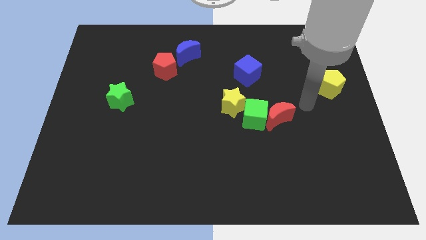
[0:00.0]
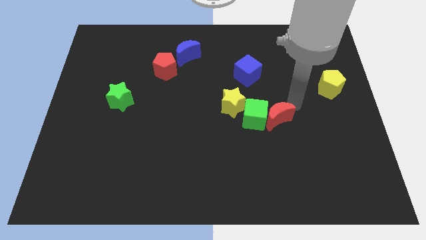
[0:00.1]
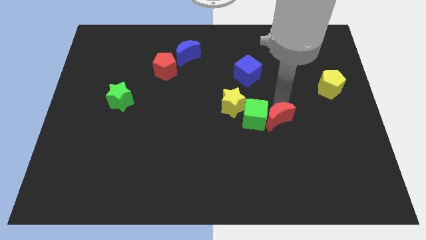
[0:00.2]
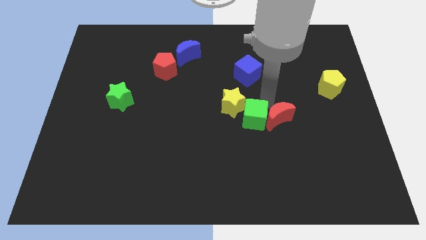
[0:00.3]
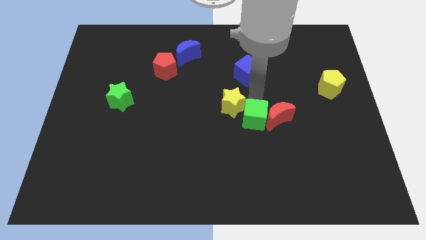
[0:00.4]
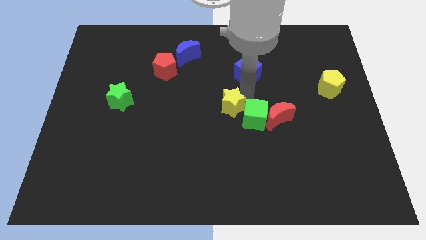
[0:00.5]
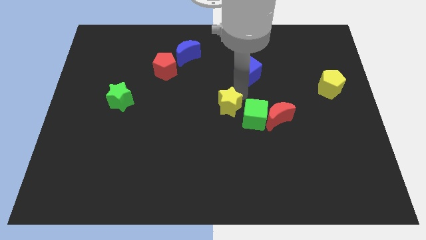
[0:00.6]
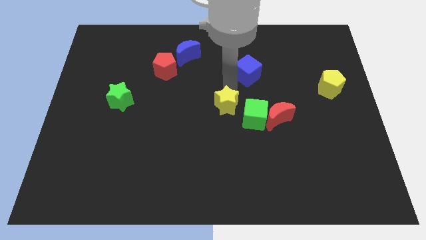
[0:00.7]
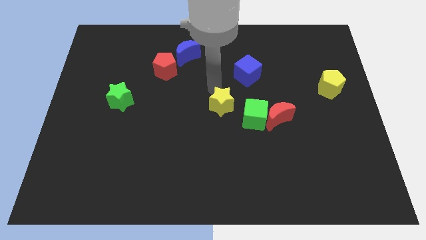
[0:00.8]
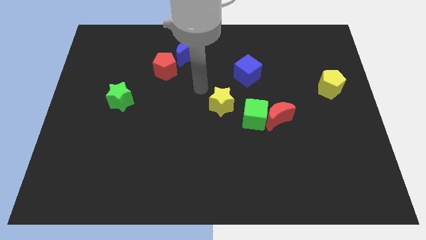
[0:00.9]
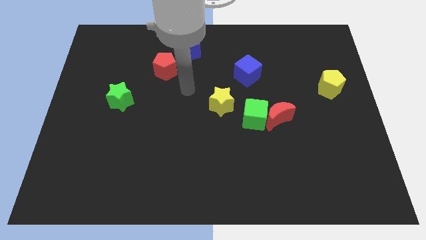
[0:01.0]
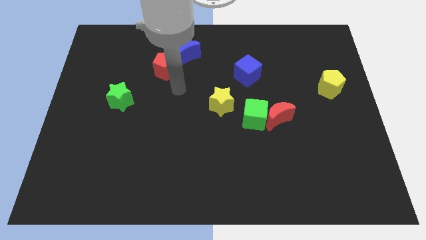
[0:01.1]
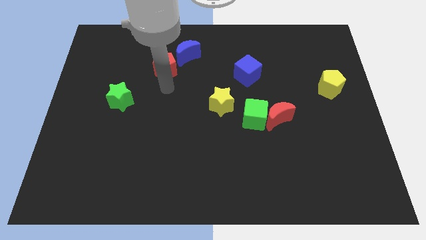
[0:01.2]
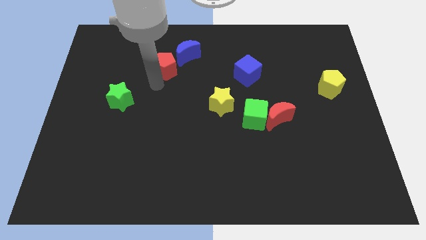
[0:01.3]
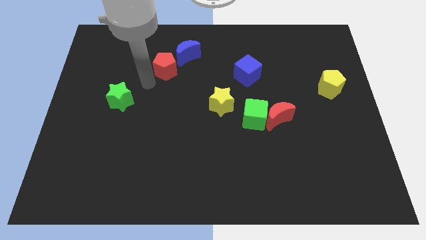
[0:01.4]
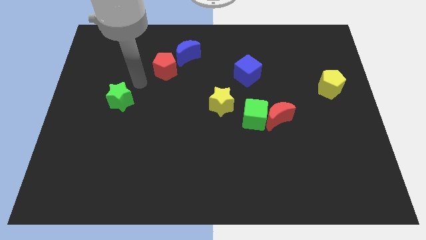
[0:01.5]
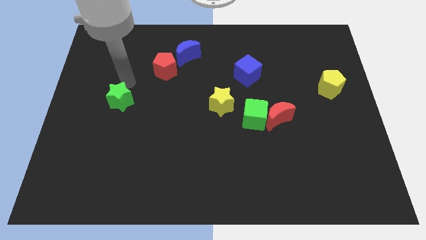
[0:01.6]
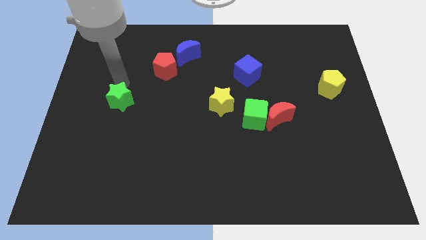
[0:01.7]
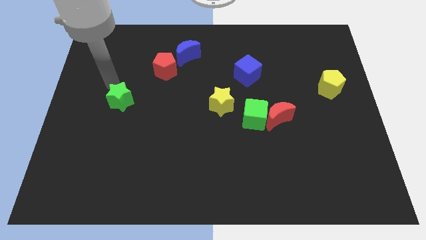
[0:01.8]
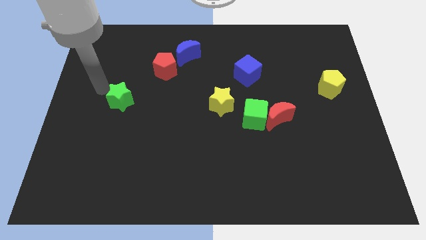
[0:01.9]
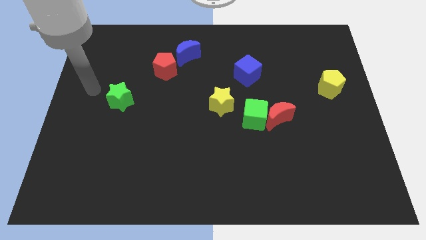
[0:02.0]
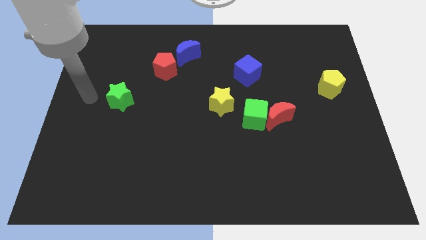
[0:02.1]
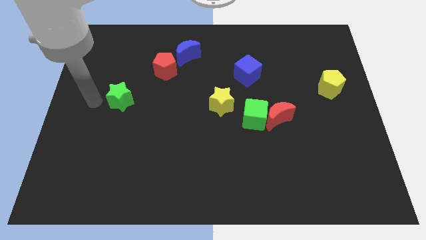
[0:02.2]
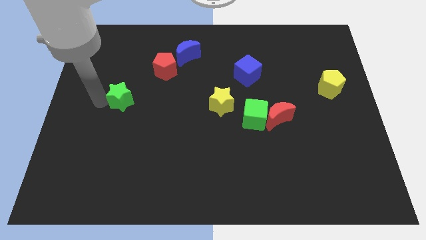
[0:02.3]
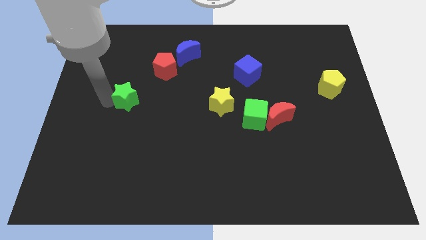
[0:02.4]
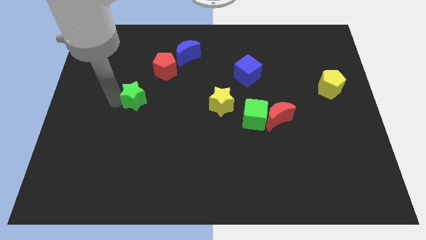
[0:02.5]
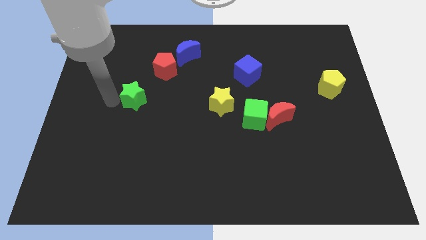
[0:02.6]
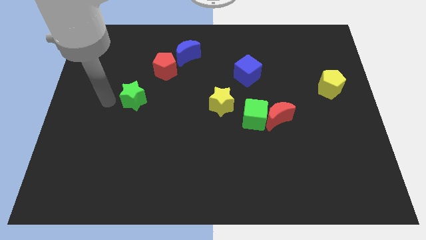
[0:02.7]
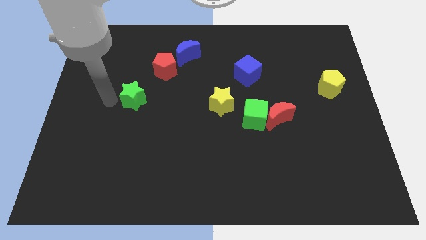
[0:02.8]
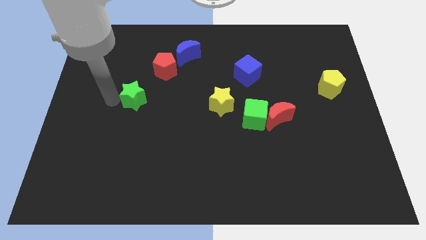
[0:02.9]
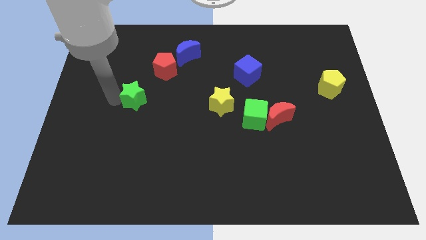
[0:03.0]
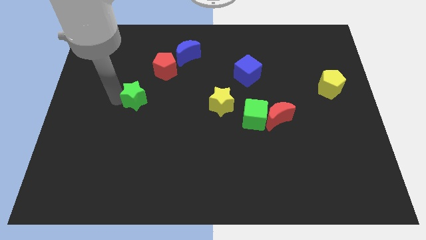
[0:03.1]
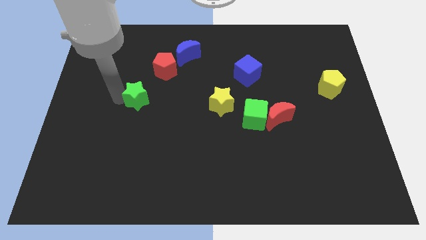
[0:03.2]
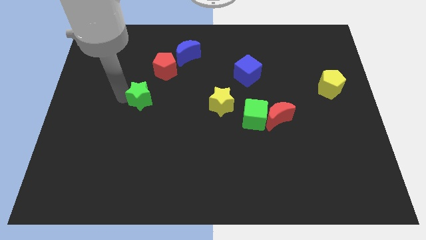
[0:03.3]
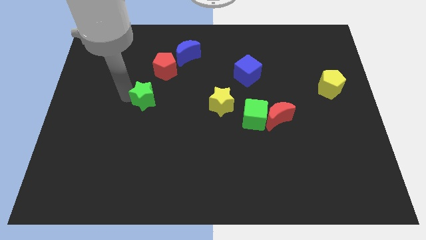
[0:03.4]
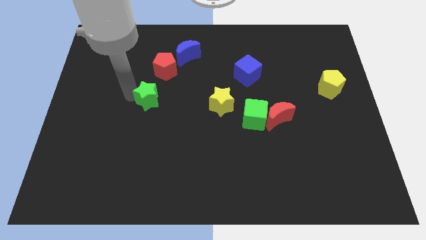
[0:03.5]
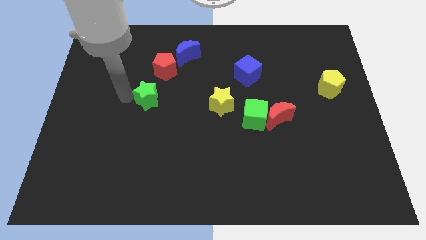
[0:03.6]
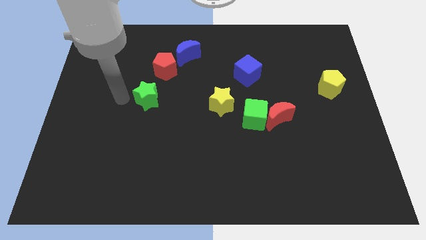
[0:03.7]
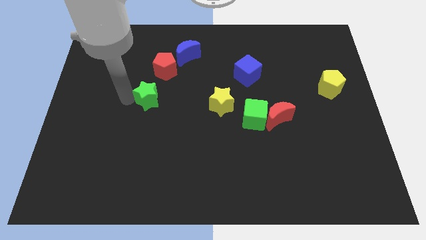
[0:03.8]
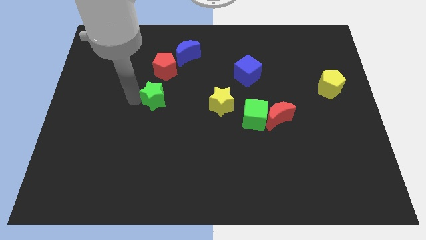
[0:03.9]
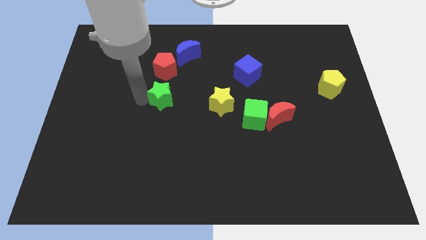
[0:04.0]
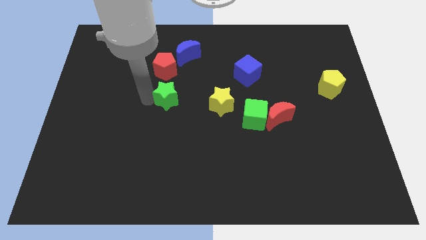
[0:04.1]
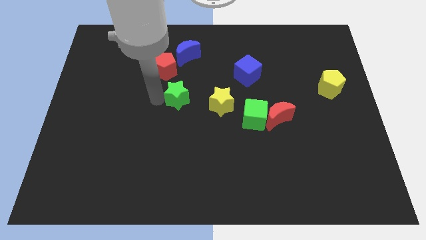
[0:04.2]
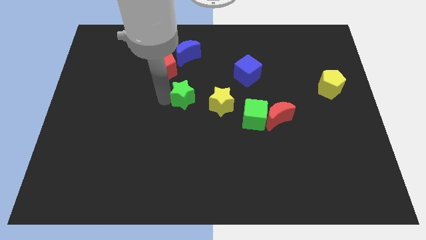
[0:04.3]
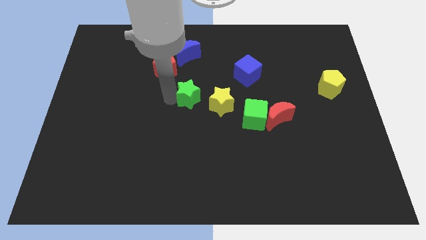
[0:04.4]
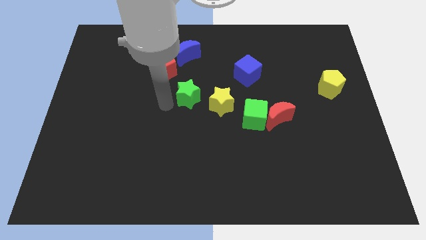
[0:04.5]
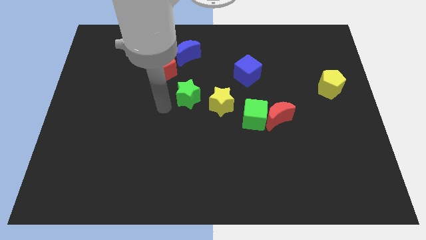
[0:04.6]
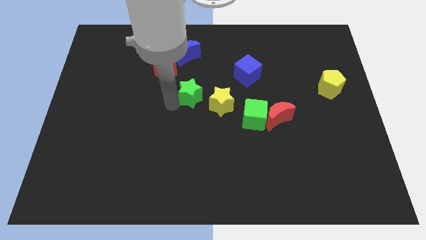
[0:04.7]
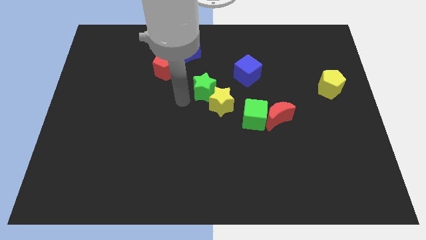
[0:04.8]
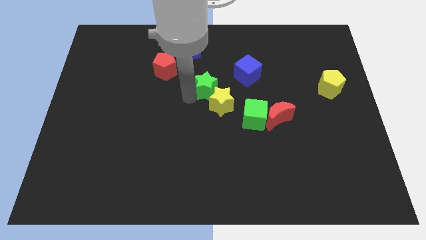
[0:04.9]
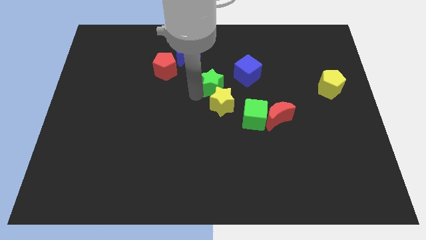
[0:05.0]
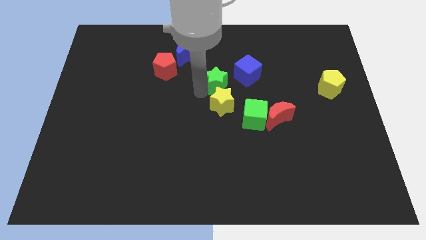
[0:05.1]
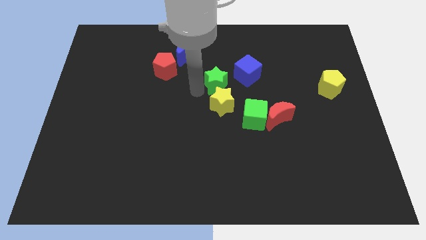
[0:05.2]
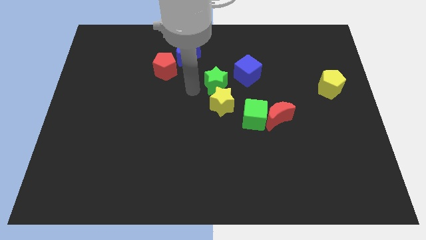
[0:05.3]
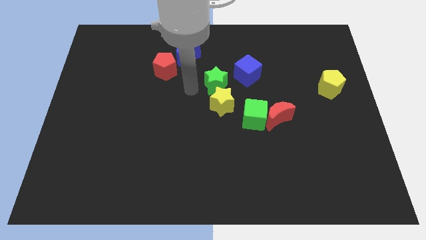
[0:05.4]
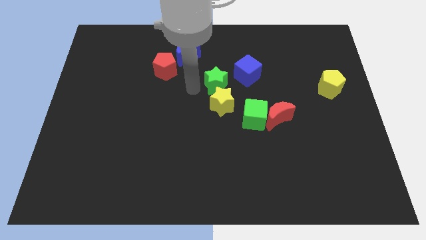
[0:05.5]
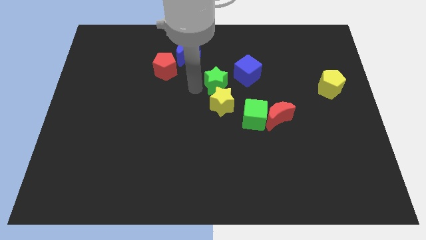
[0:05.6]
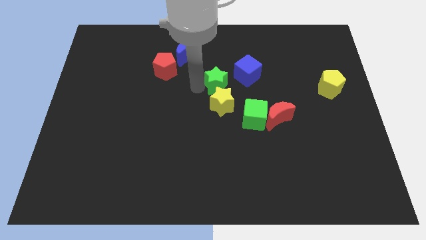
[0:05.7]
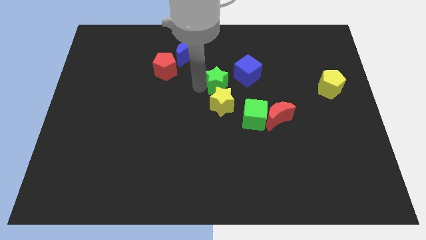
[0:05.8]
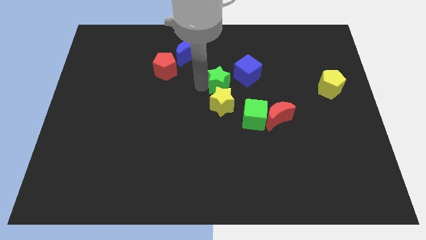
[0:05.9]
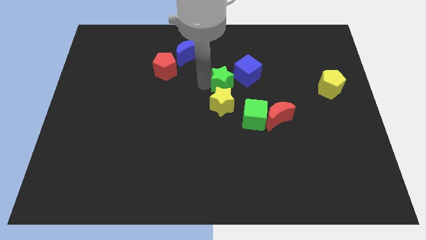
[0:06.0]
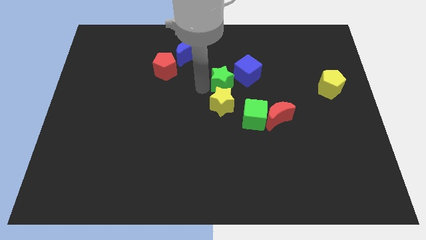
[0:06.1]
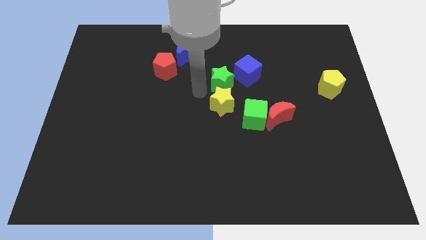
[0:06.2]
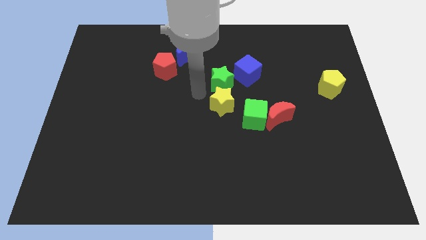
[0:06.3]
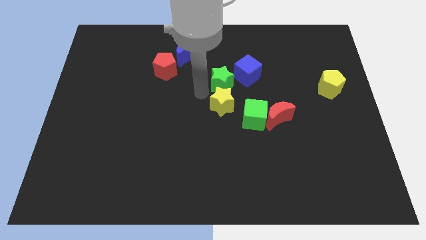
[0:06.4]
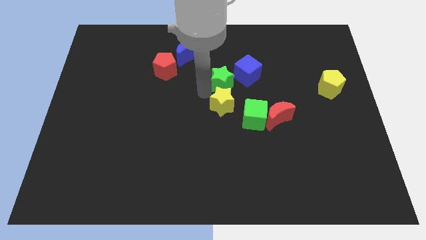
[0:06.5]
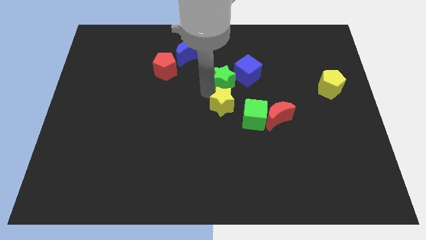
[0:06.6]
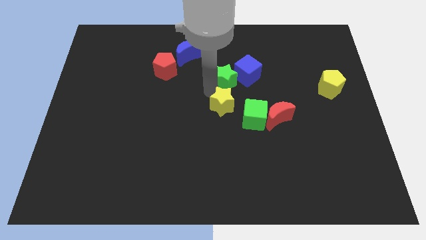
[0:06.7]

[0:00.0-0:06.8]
move the green star close to the blue cube
